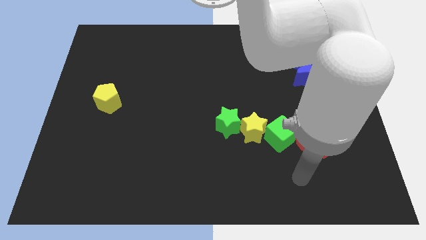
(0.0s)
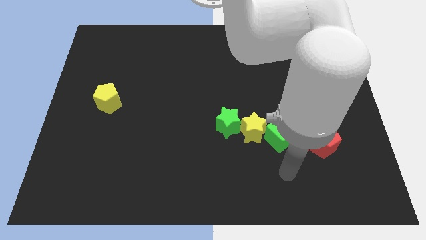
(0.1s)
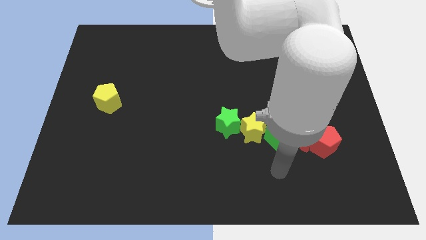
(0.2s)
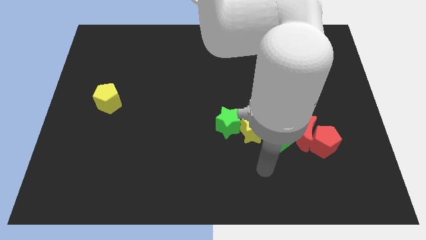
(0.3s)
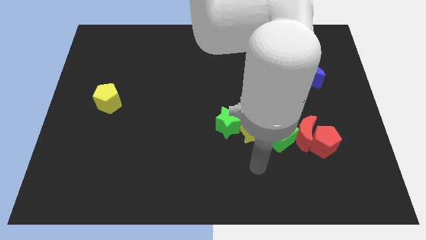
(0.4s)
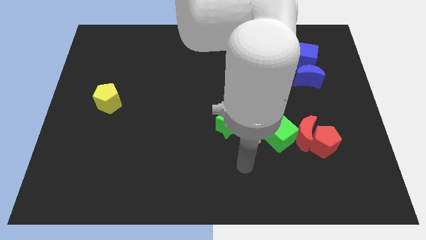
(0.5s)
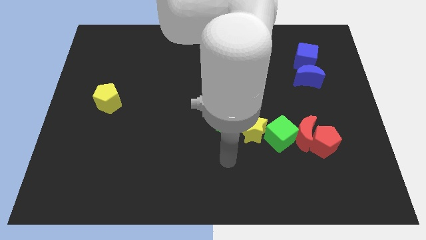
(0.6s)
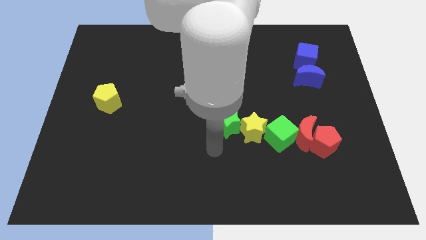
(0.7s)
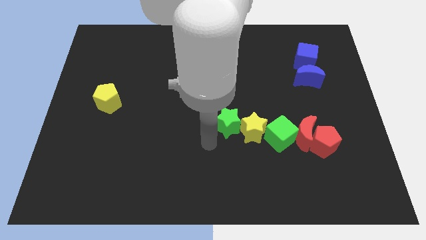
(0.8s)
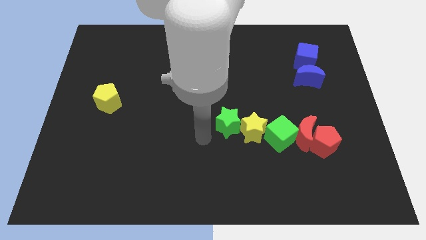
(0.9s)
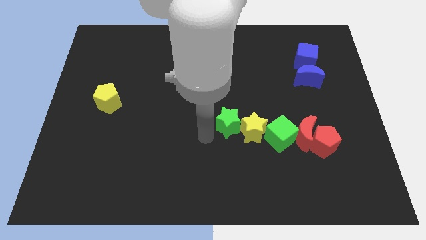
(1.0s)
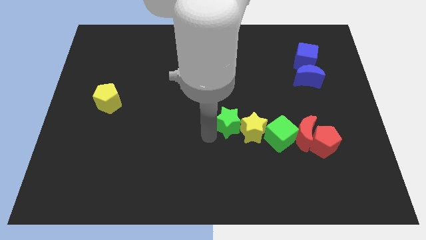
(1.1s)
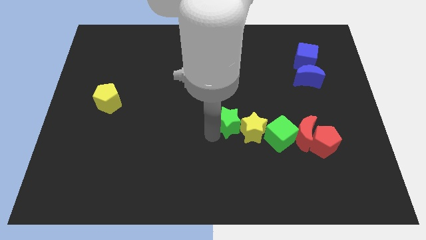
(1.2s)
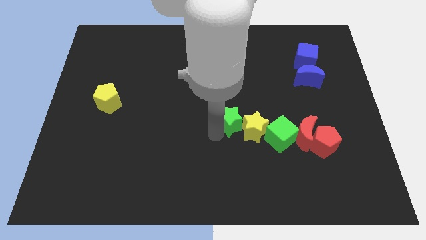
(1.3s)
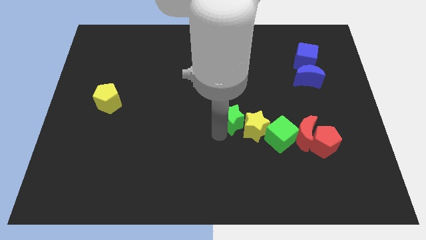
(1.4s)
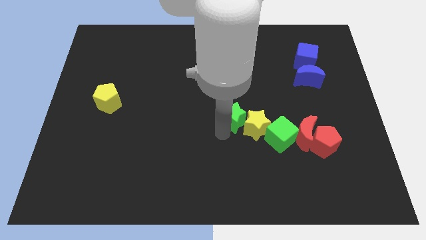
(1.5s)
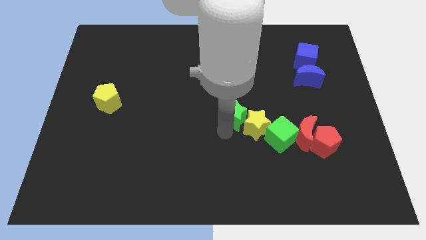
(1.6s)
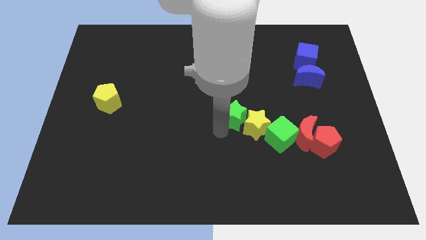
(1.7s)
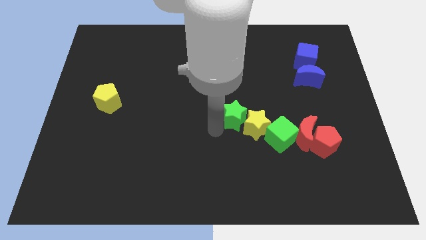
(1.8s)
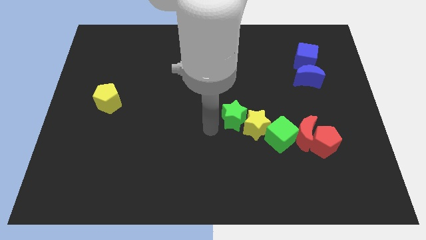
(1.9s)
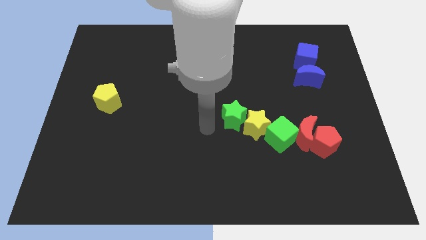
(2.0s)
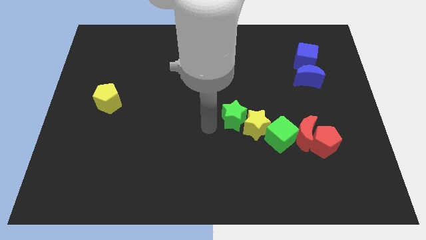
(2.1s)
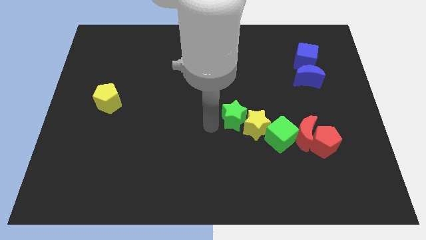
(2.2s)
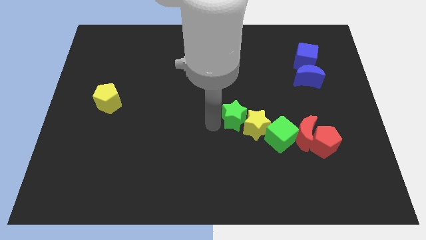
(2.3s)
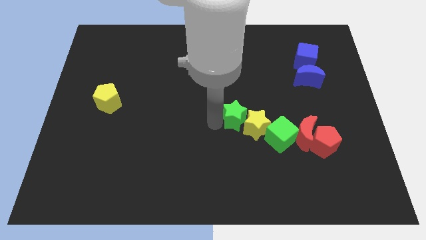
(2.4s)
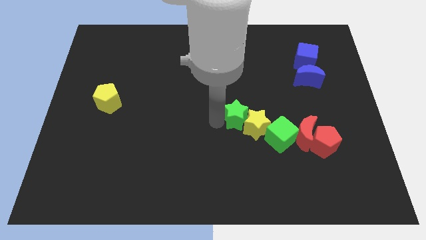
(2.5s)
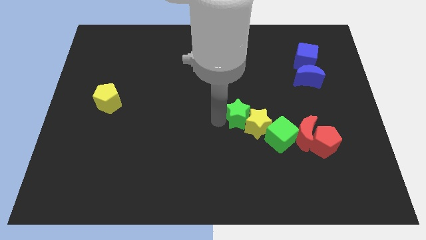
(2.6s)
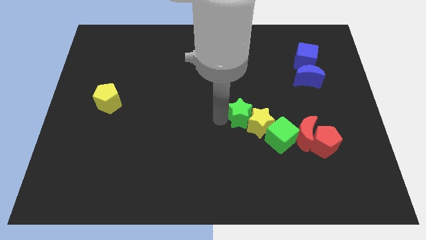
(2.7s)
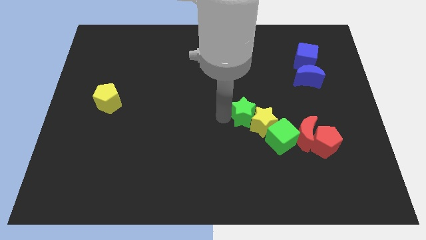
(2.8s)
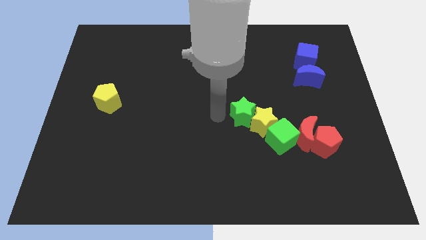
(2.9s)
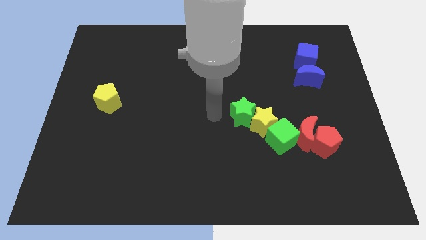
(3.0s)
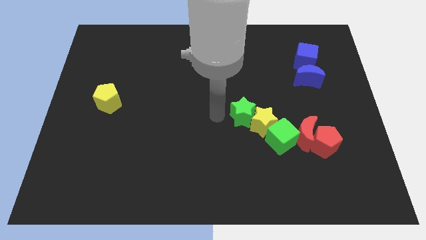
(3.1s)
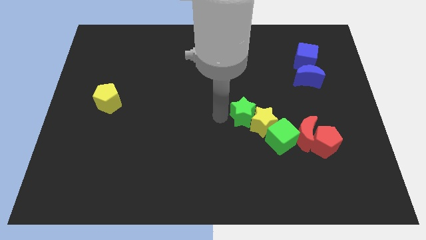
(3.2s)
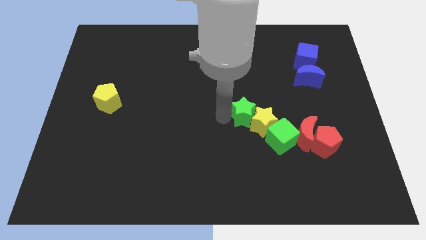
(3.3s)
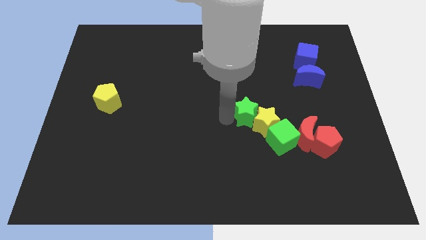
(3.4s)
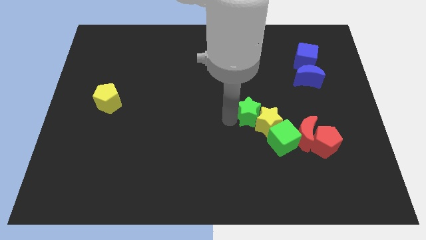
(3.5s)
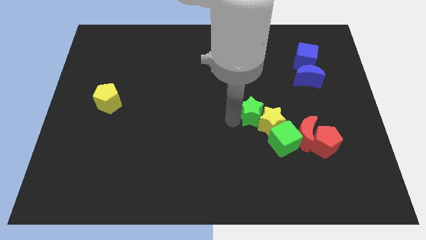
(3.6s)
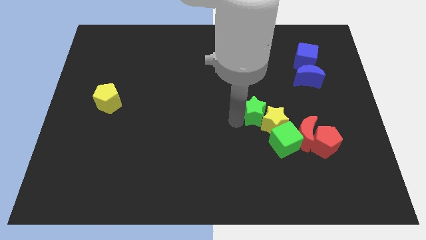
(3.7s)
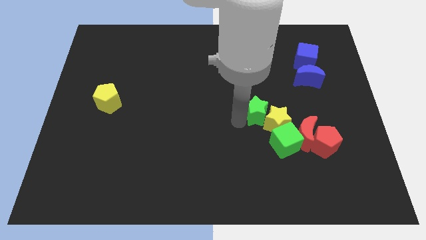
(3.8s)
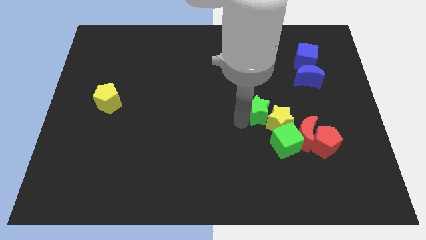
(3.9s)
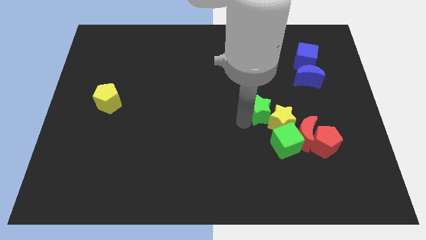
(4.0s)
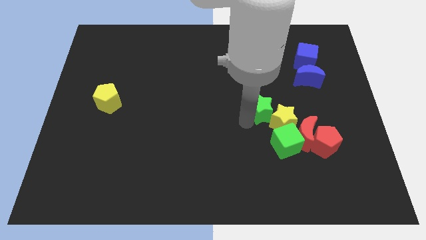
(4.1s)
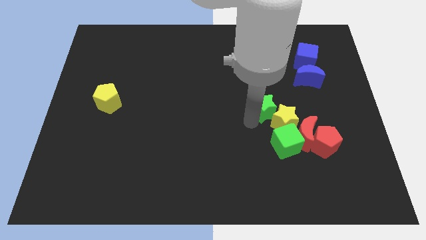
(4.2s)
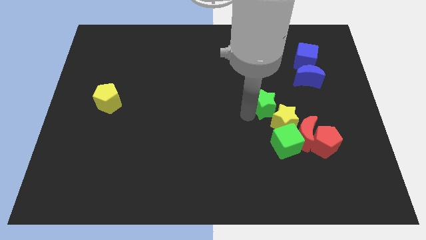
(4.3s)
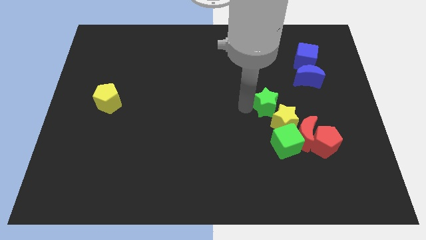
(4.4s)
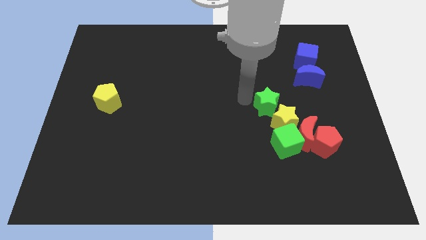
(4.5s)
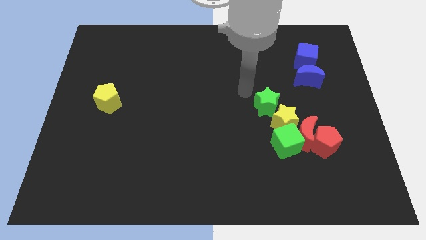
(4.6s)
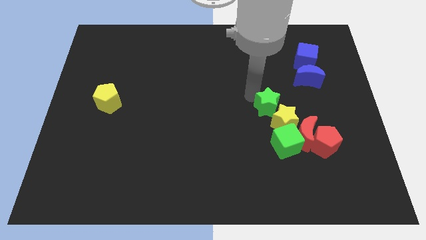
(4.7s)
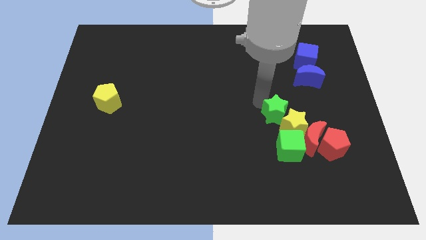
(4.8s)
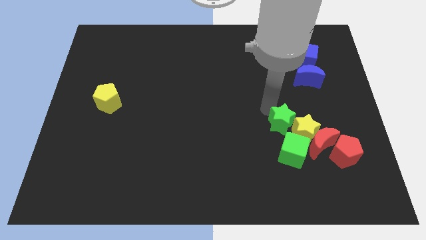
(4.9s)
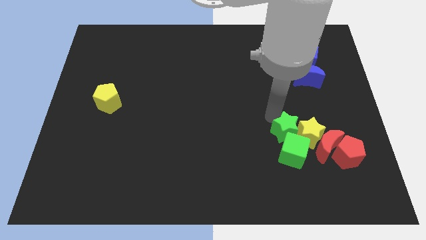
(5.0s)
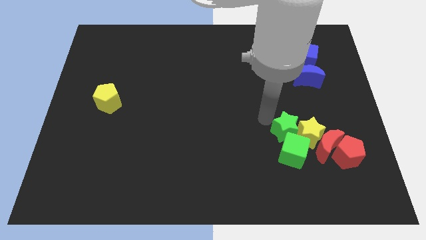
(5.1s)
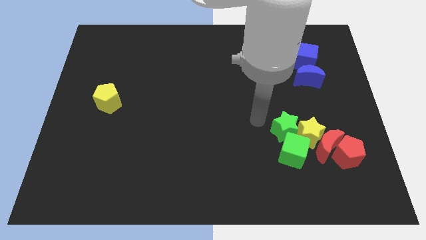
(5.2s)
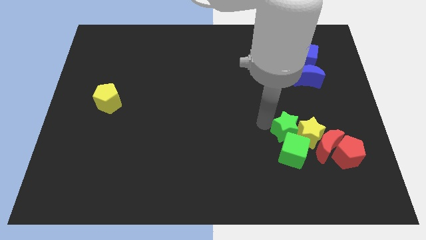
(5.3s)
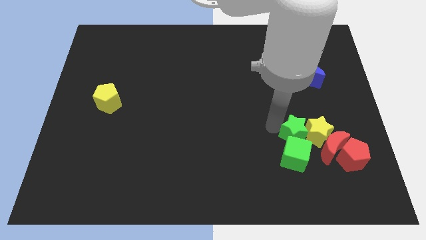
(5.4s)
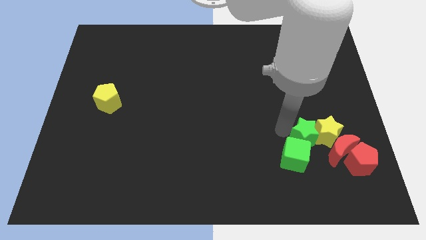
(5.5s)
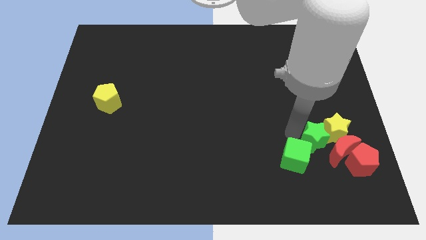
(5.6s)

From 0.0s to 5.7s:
put the green star next to the red moon

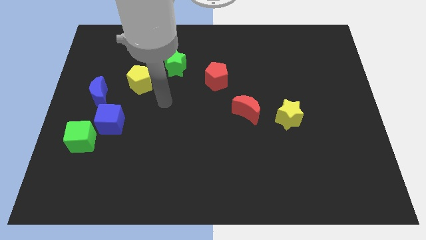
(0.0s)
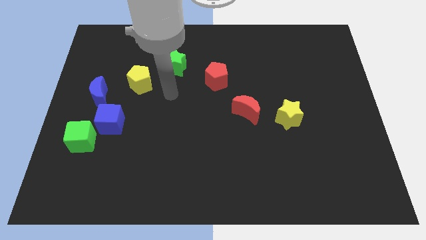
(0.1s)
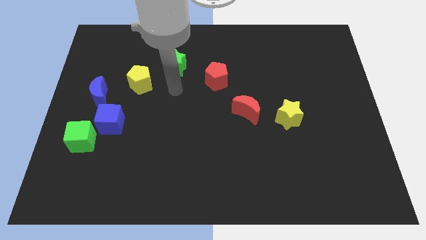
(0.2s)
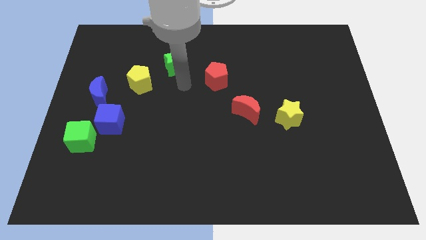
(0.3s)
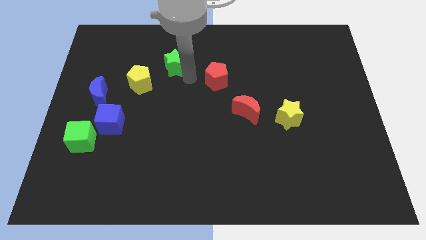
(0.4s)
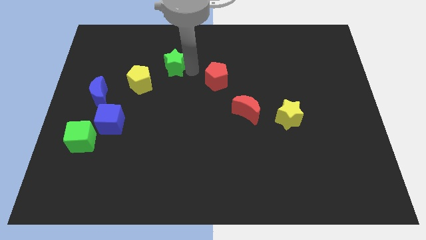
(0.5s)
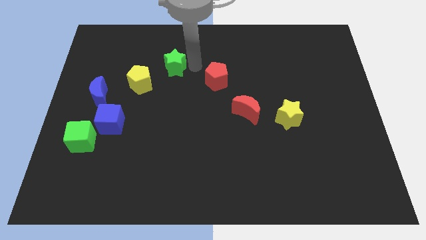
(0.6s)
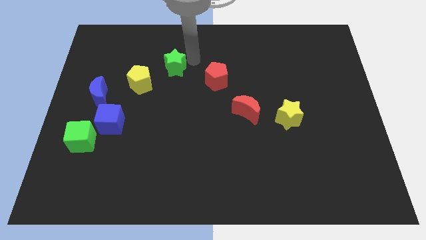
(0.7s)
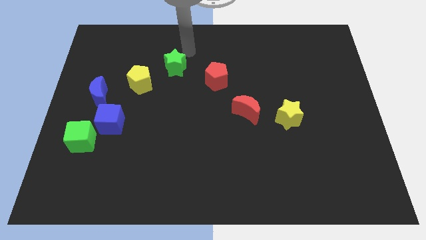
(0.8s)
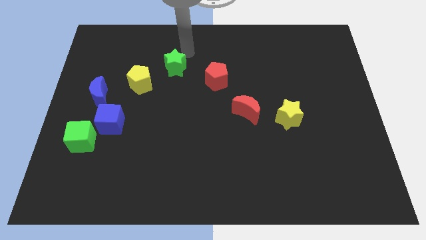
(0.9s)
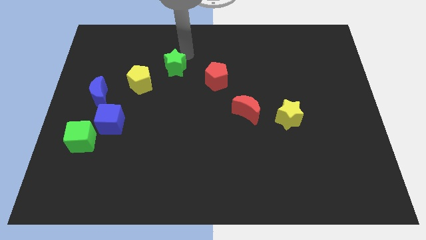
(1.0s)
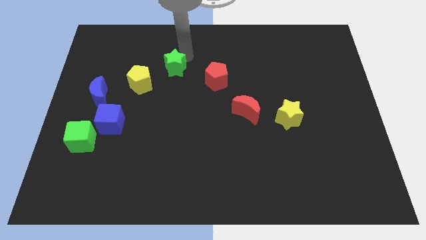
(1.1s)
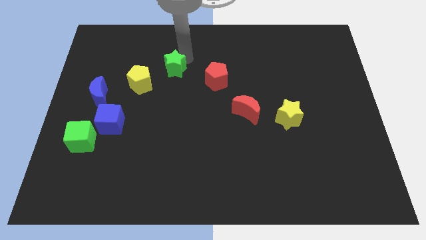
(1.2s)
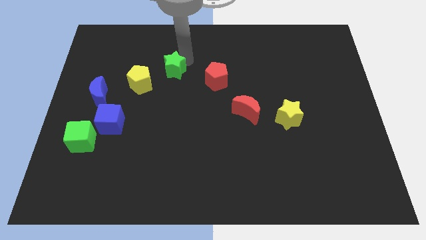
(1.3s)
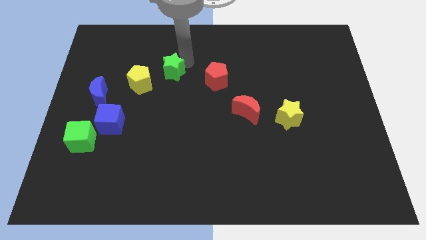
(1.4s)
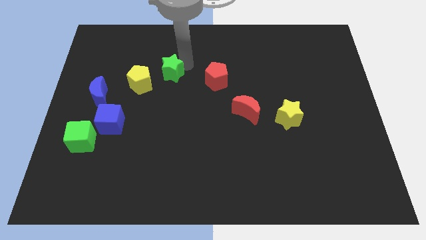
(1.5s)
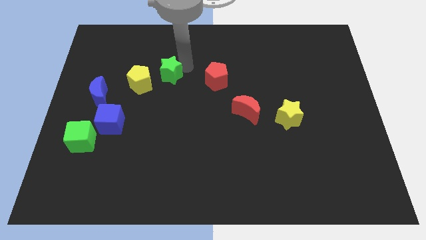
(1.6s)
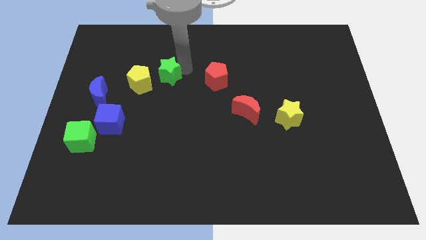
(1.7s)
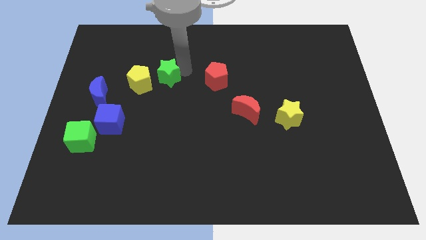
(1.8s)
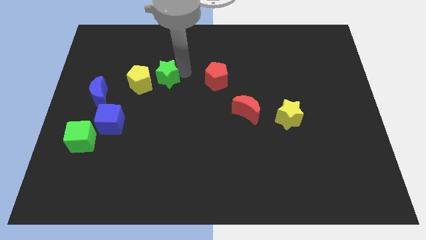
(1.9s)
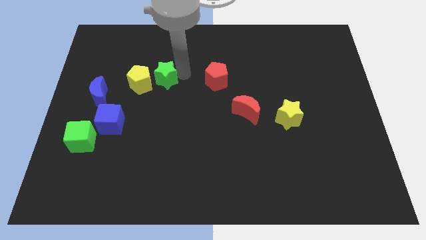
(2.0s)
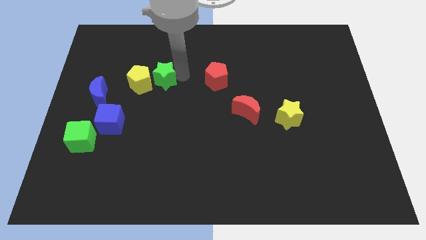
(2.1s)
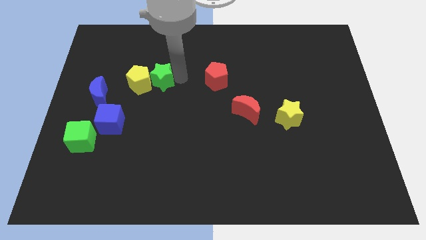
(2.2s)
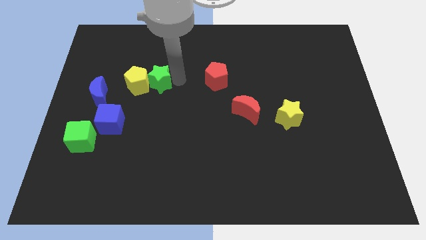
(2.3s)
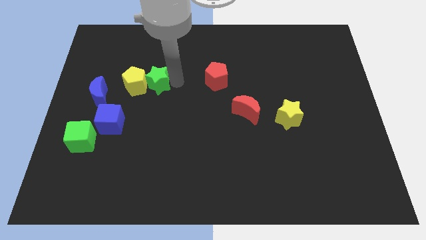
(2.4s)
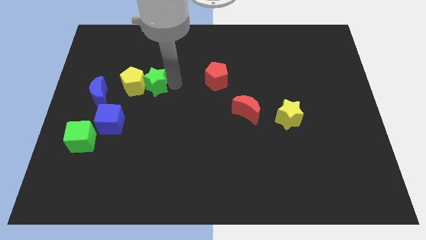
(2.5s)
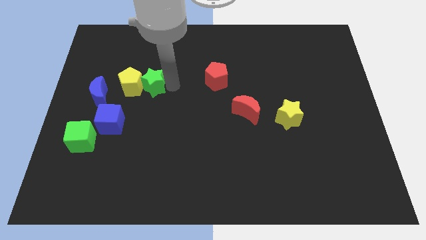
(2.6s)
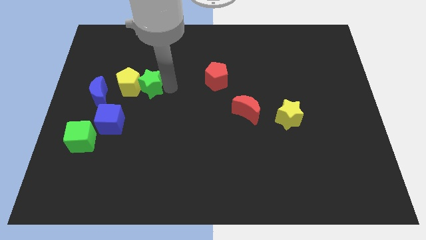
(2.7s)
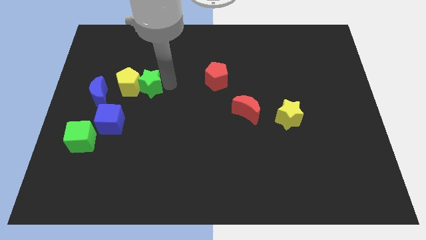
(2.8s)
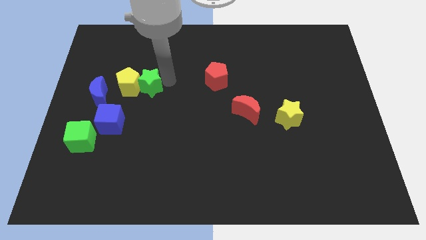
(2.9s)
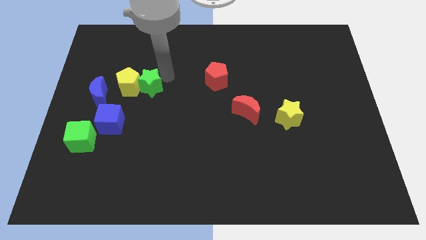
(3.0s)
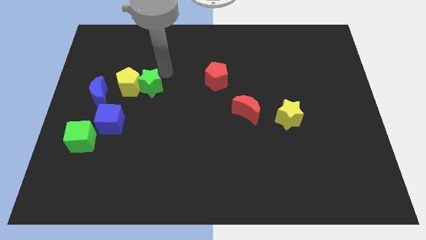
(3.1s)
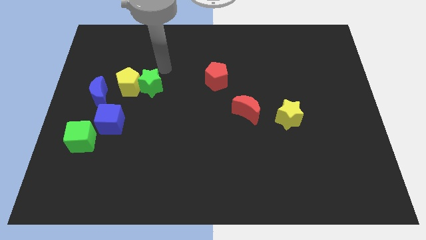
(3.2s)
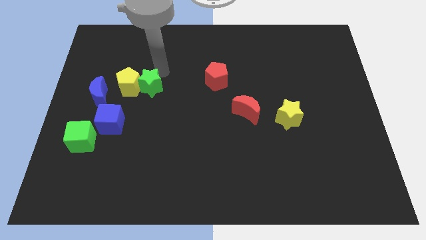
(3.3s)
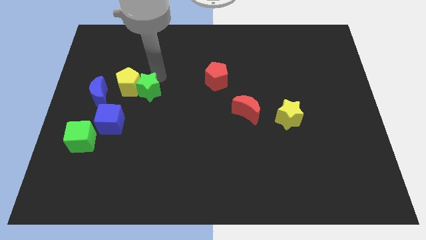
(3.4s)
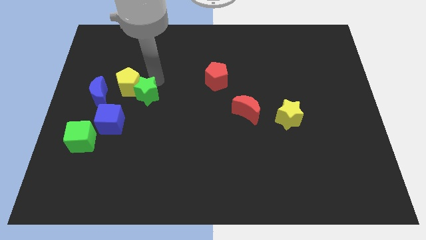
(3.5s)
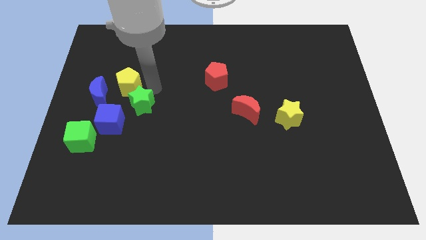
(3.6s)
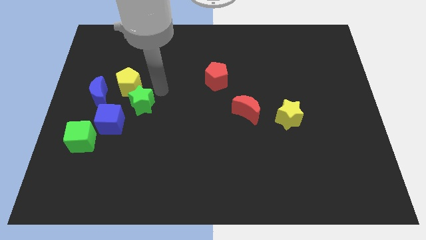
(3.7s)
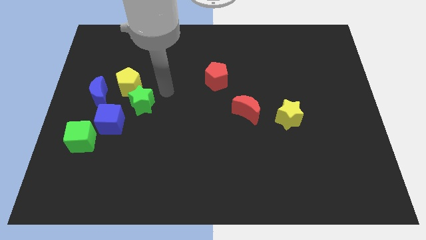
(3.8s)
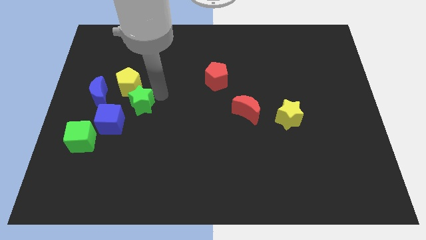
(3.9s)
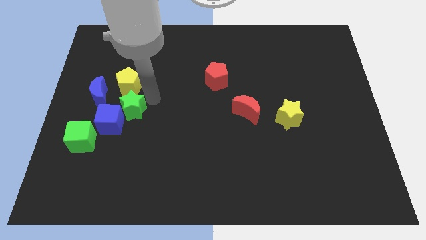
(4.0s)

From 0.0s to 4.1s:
slide the green star next to the blue cube
